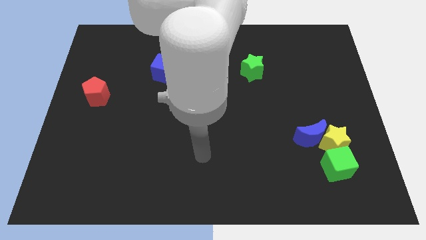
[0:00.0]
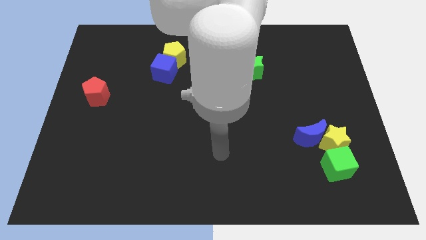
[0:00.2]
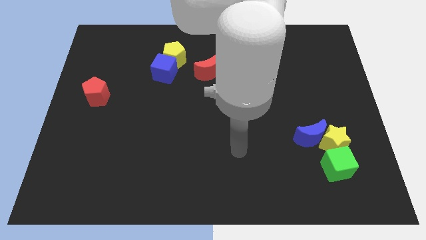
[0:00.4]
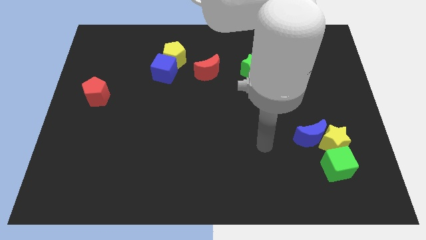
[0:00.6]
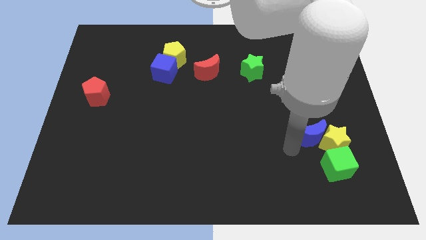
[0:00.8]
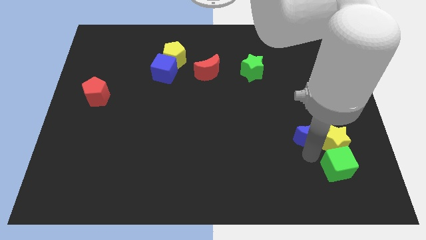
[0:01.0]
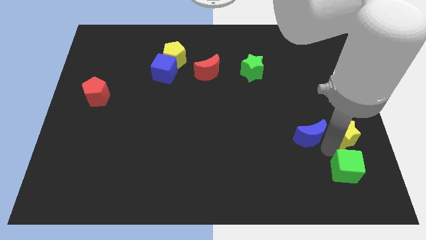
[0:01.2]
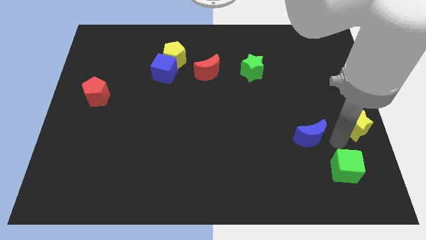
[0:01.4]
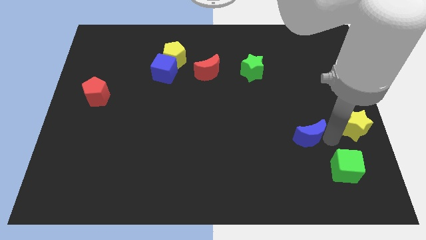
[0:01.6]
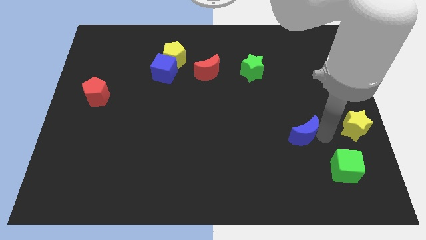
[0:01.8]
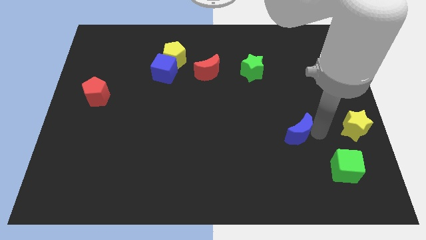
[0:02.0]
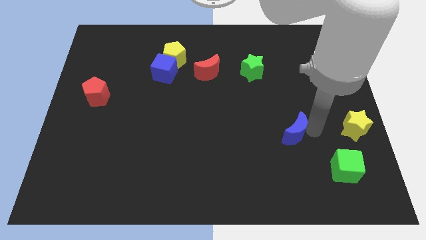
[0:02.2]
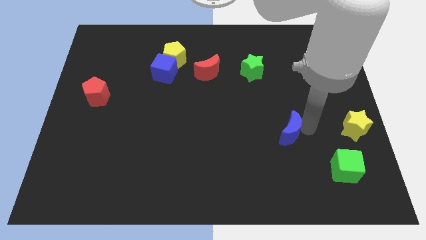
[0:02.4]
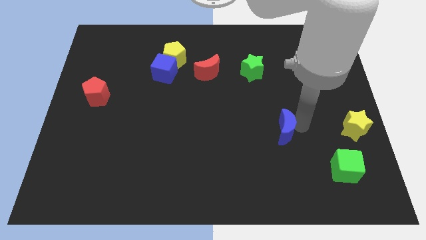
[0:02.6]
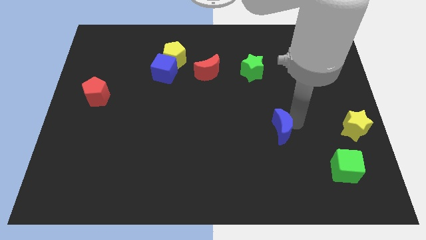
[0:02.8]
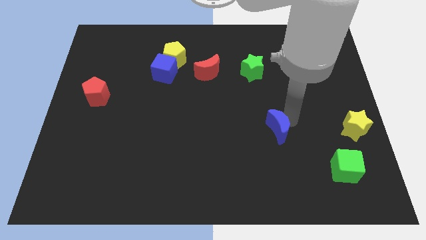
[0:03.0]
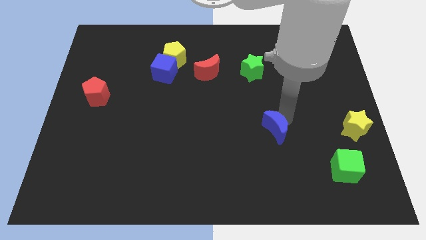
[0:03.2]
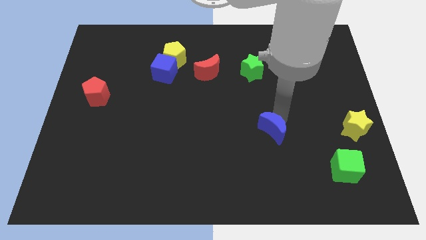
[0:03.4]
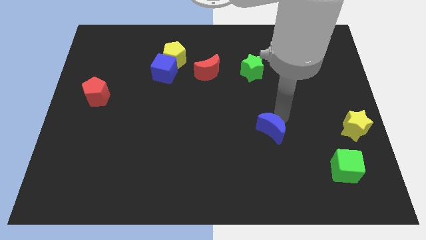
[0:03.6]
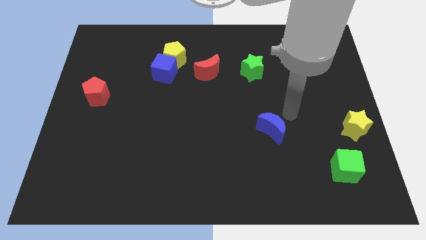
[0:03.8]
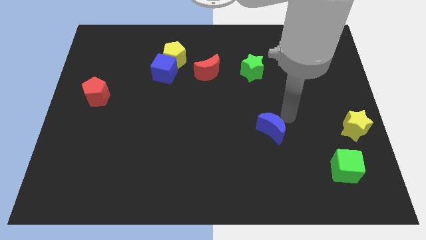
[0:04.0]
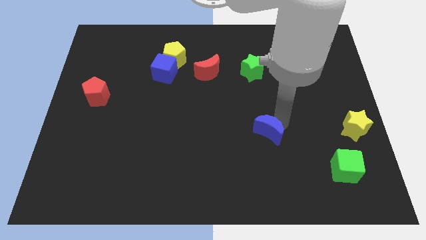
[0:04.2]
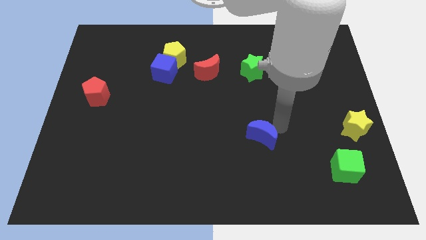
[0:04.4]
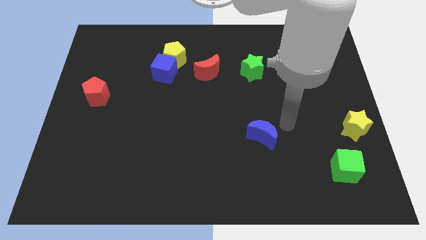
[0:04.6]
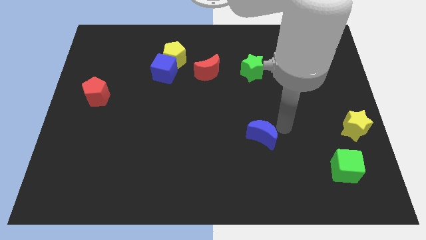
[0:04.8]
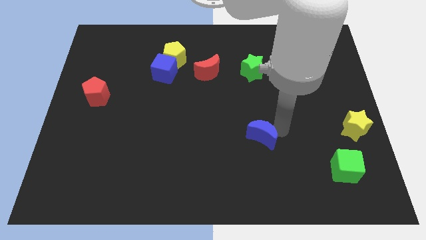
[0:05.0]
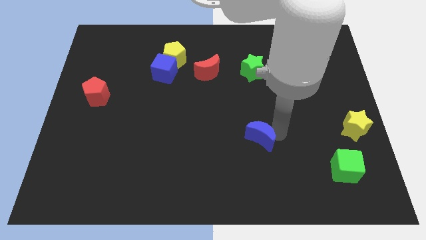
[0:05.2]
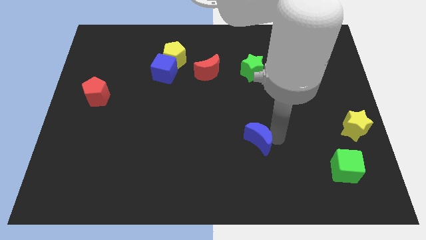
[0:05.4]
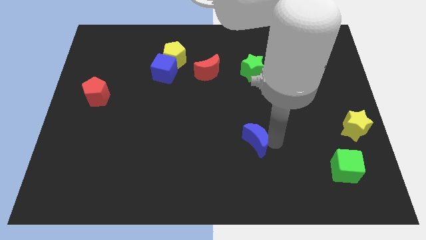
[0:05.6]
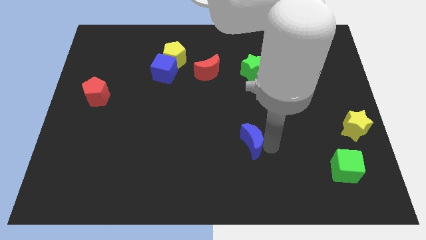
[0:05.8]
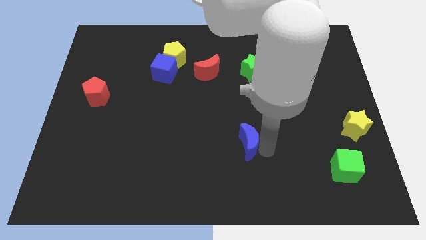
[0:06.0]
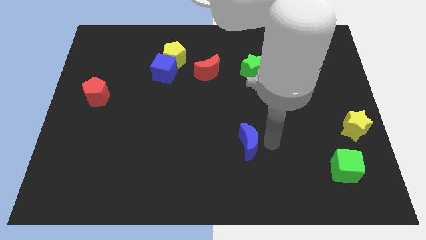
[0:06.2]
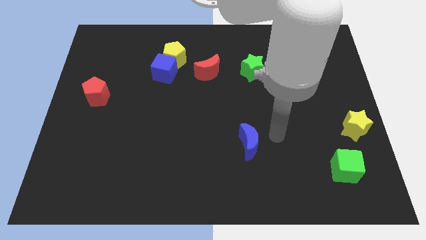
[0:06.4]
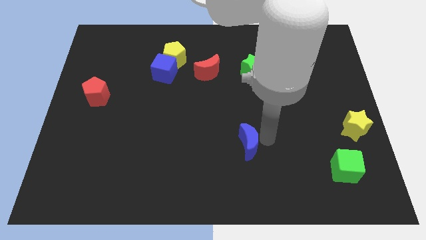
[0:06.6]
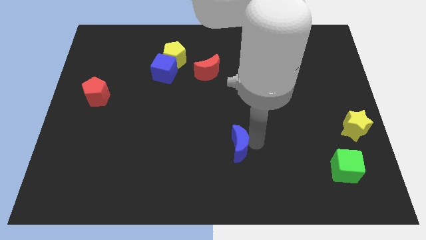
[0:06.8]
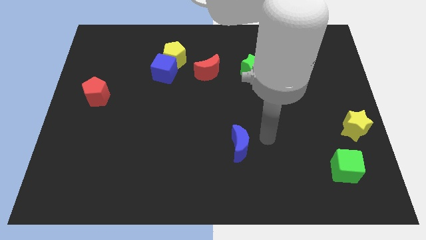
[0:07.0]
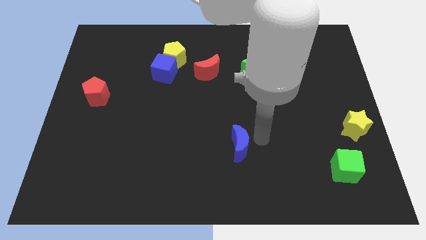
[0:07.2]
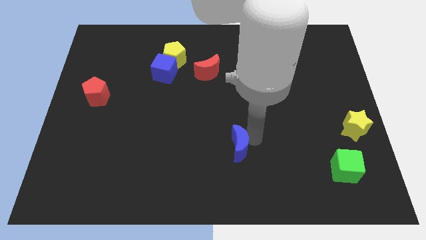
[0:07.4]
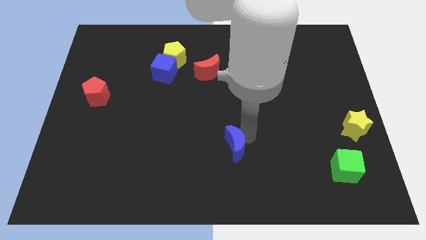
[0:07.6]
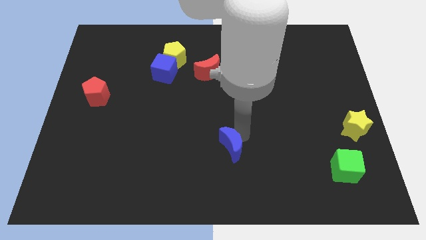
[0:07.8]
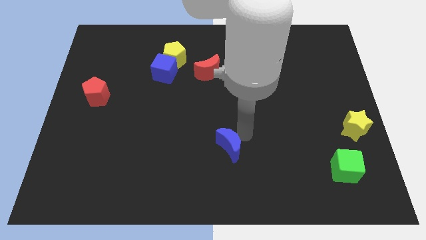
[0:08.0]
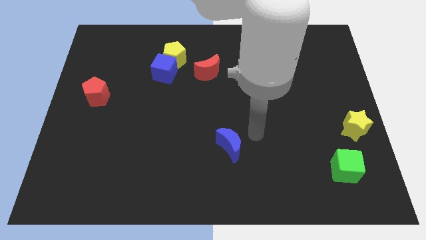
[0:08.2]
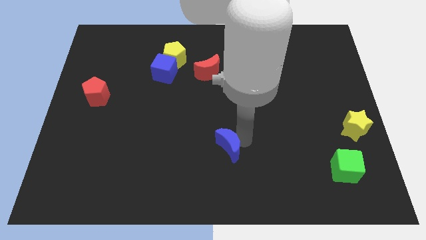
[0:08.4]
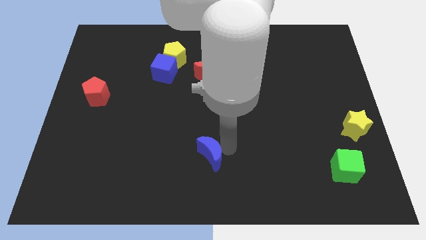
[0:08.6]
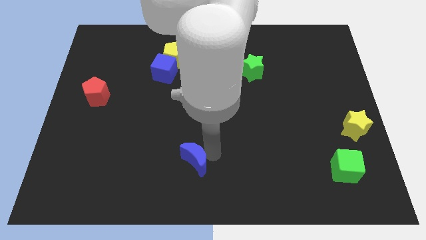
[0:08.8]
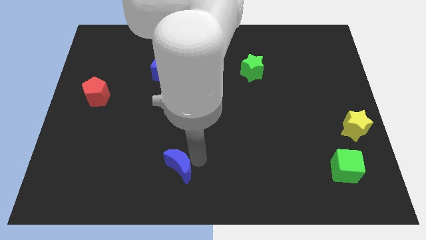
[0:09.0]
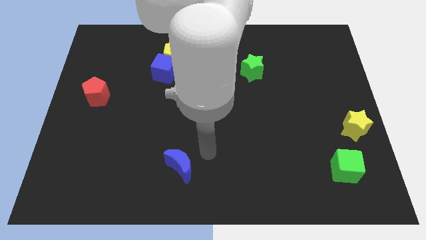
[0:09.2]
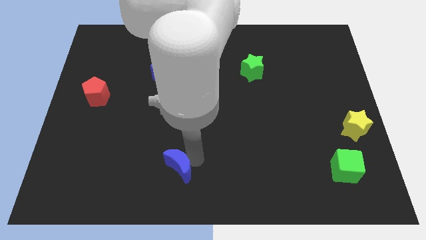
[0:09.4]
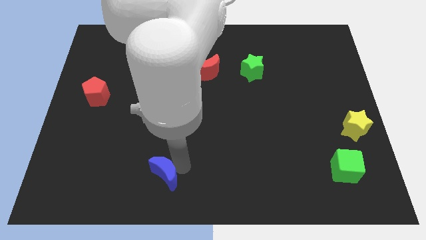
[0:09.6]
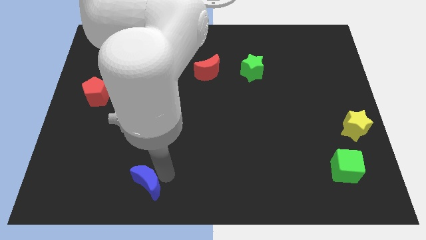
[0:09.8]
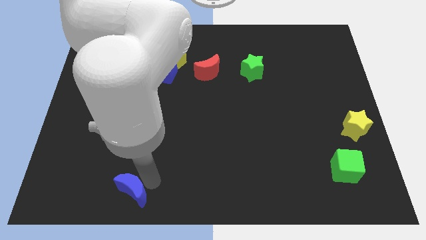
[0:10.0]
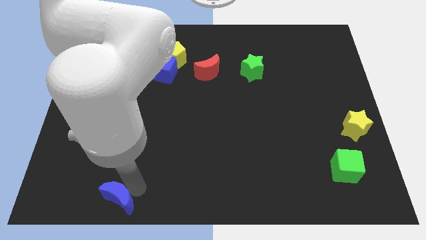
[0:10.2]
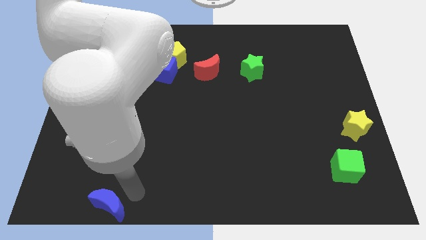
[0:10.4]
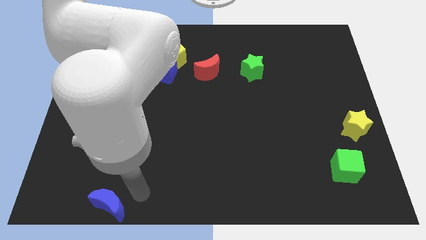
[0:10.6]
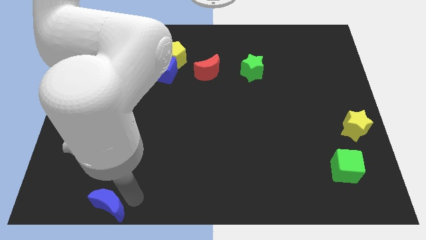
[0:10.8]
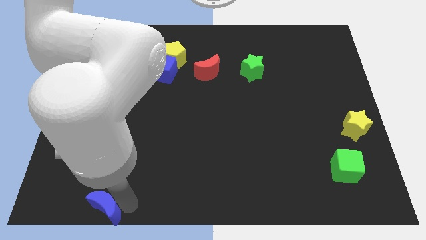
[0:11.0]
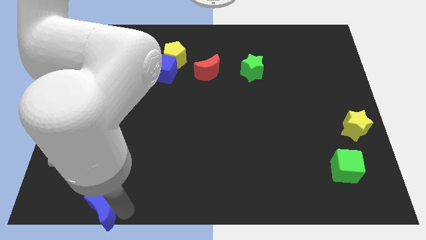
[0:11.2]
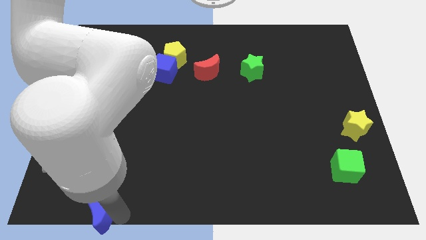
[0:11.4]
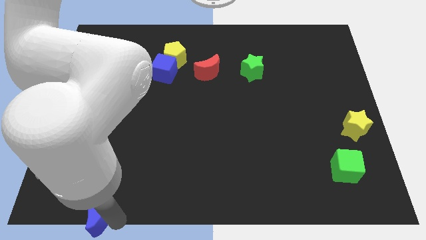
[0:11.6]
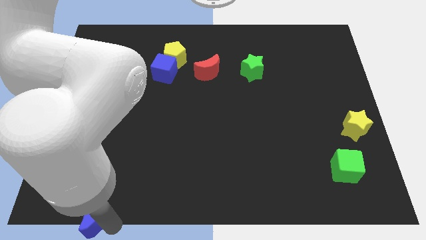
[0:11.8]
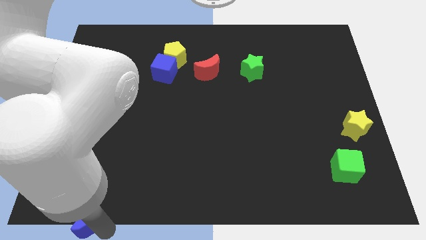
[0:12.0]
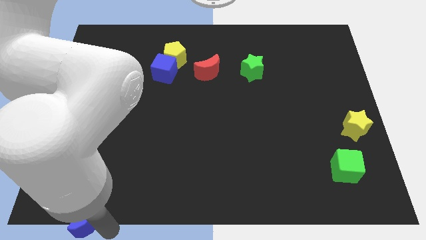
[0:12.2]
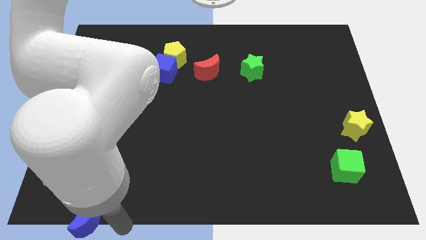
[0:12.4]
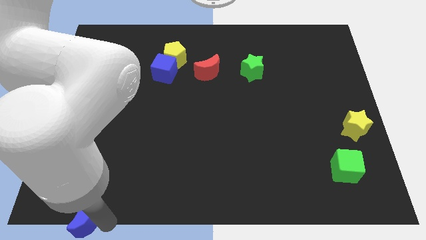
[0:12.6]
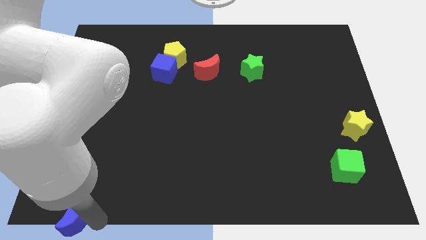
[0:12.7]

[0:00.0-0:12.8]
put the blue moon to the bottom left of the board
